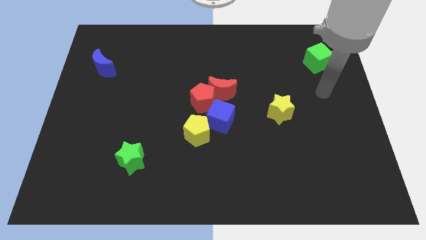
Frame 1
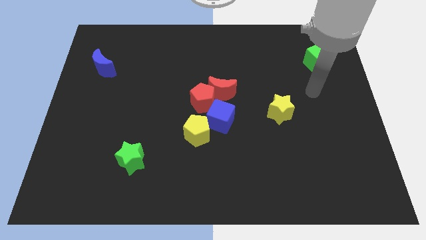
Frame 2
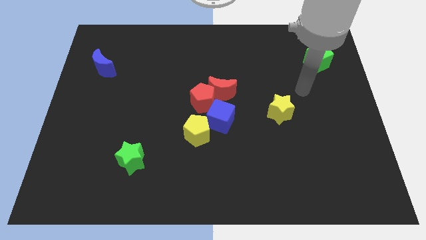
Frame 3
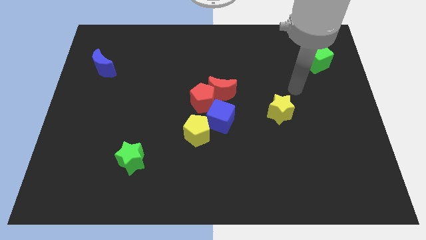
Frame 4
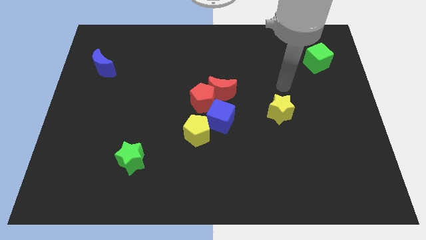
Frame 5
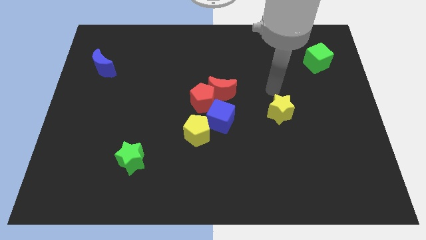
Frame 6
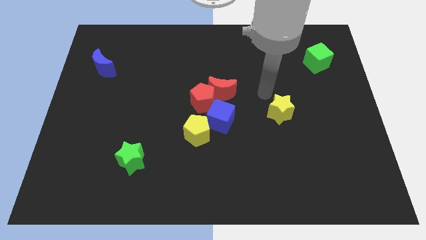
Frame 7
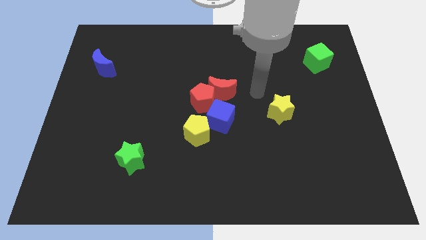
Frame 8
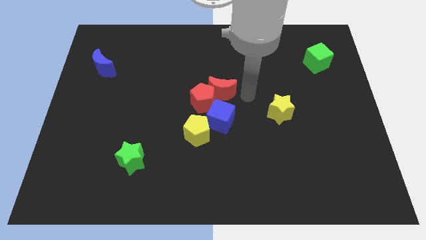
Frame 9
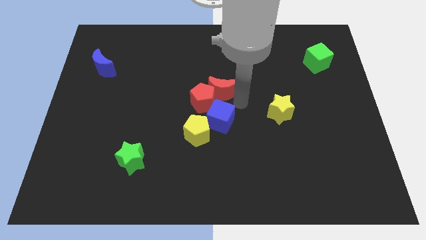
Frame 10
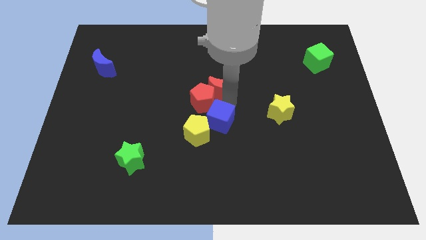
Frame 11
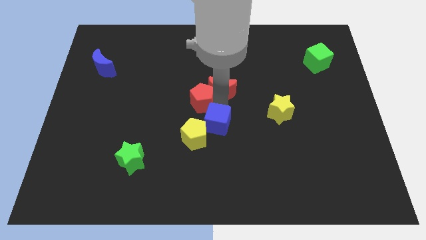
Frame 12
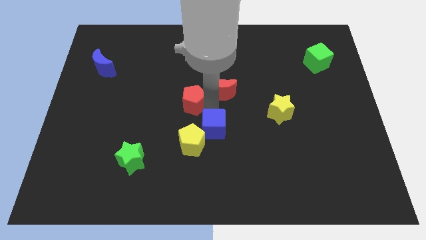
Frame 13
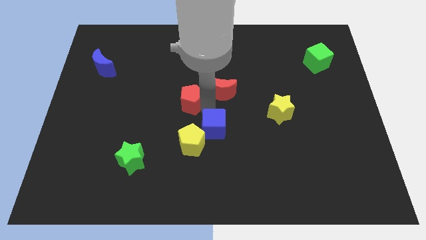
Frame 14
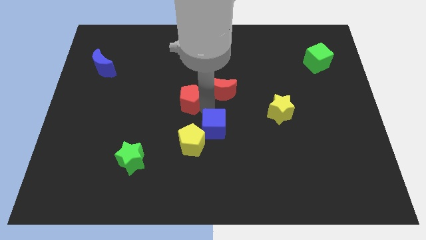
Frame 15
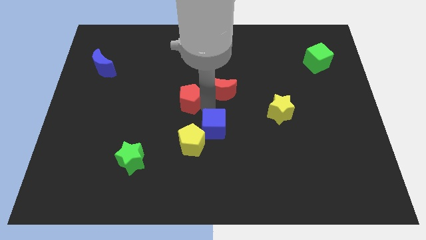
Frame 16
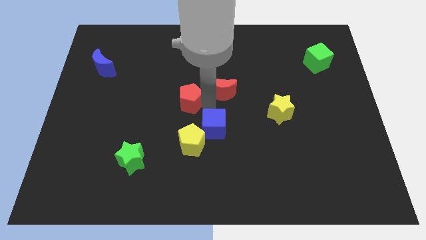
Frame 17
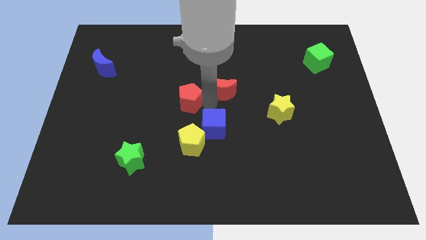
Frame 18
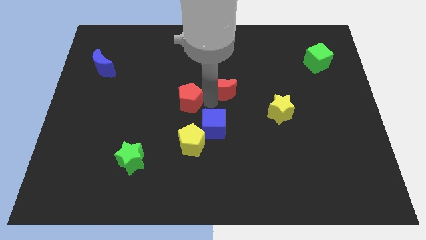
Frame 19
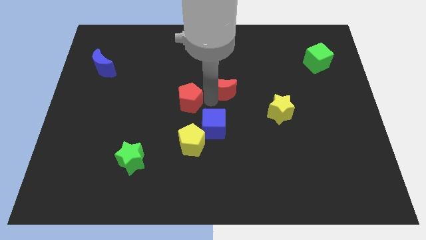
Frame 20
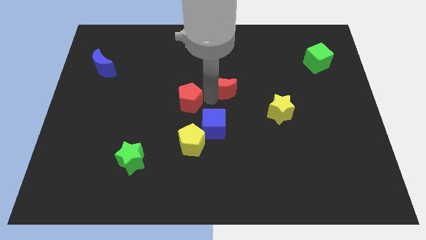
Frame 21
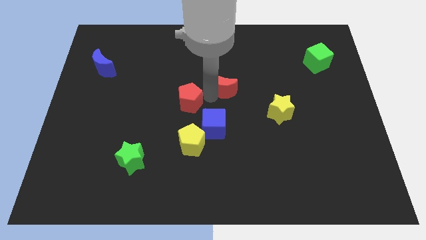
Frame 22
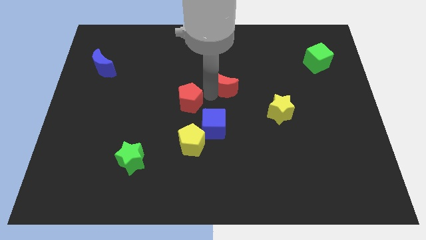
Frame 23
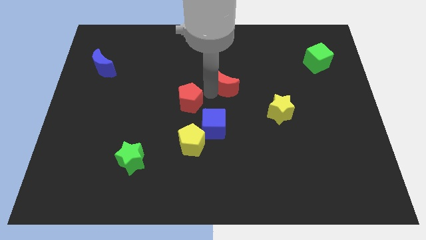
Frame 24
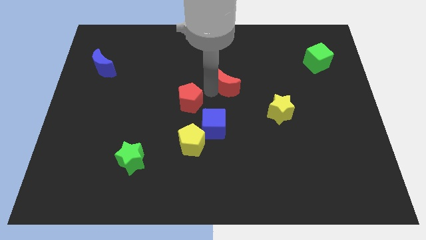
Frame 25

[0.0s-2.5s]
separate the red moon from the red pentagon and blue cube

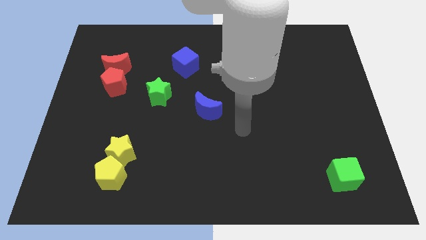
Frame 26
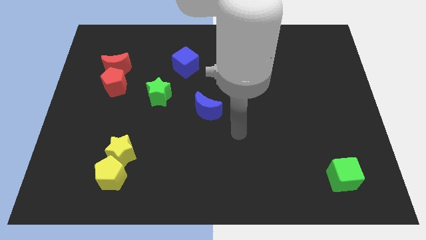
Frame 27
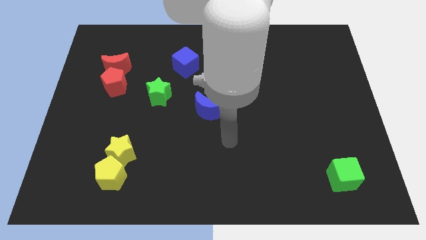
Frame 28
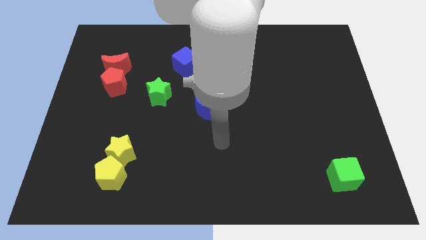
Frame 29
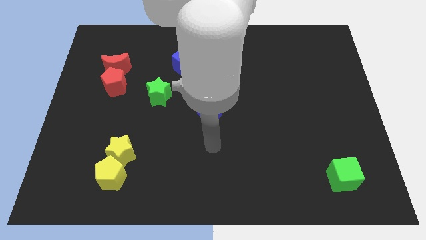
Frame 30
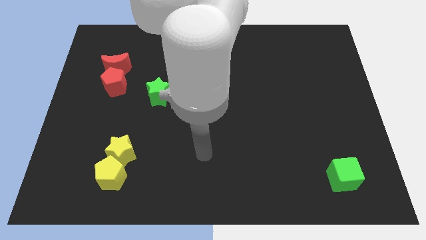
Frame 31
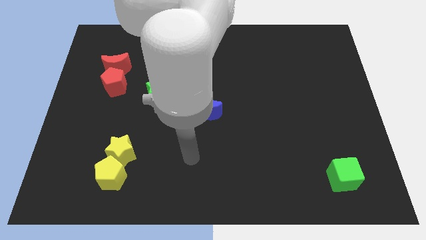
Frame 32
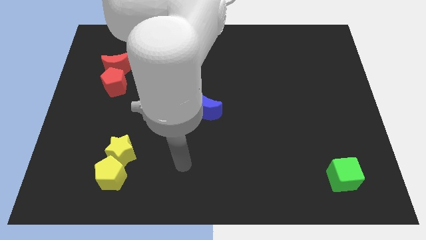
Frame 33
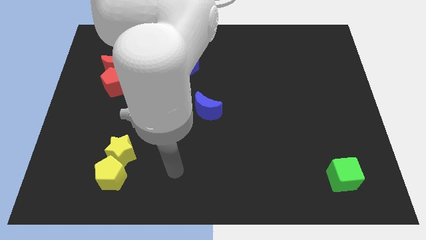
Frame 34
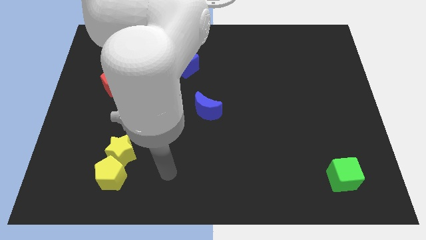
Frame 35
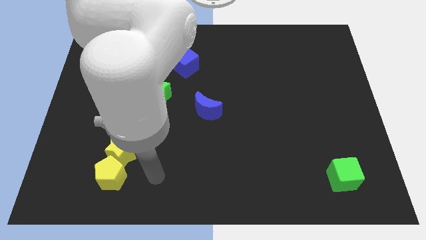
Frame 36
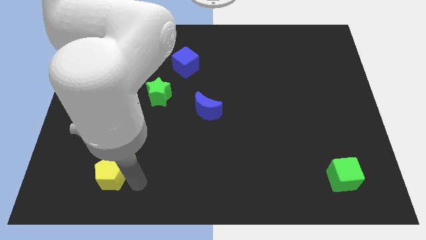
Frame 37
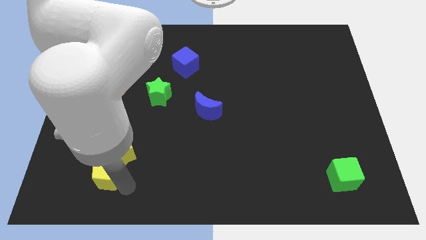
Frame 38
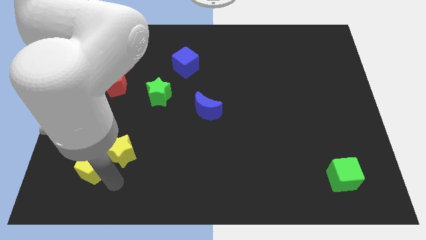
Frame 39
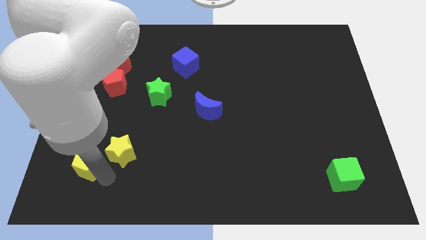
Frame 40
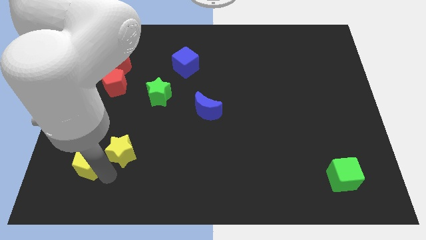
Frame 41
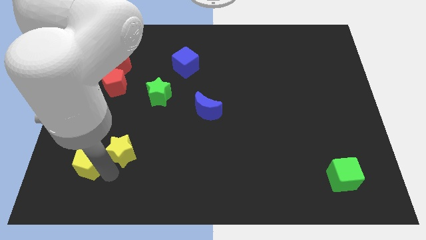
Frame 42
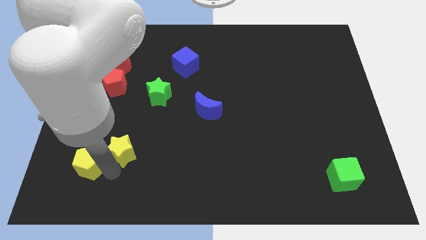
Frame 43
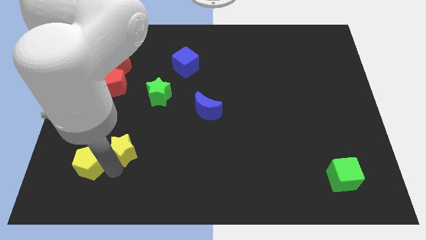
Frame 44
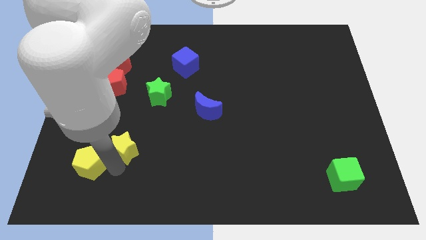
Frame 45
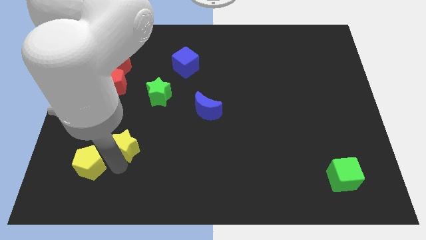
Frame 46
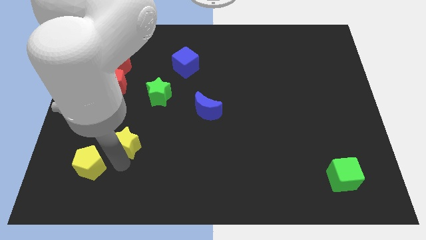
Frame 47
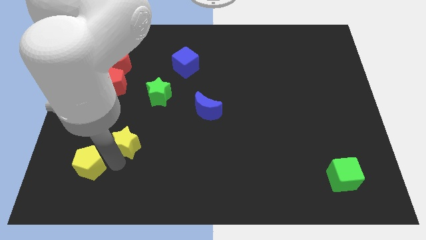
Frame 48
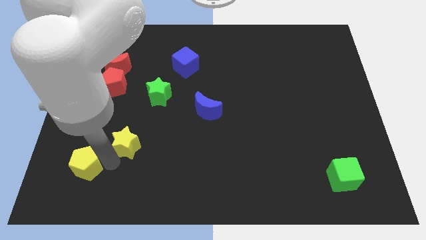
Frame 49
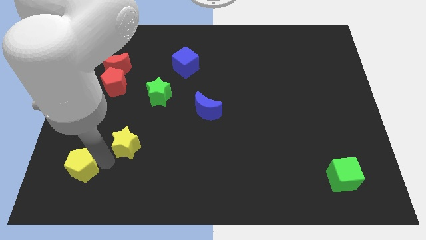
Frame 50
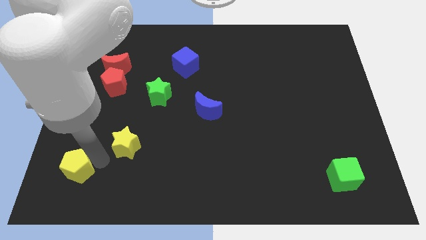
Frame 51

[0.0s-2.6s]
separate the yellow star from the yellow pentagon

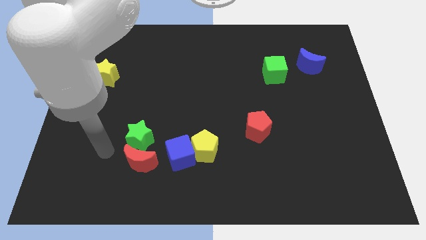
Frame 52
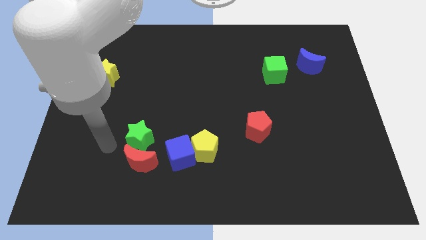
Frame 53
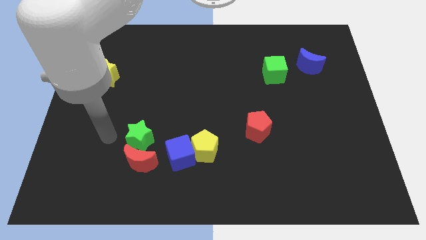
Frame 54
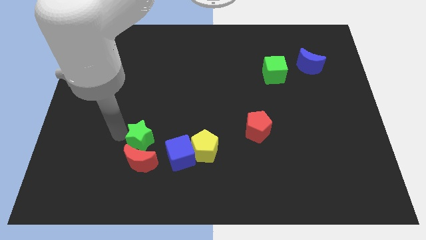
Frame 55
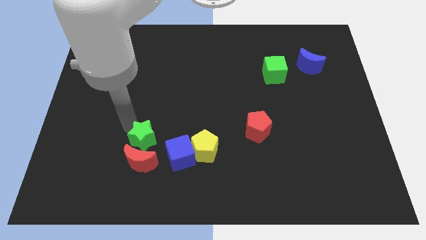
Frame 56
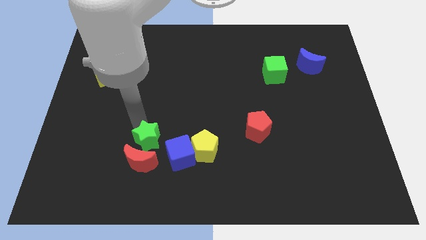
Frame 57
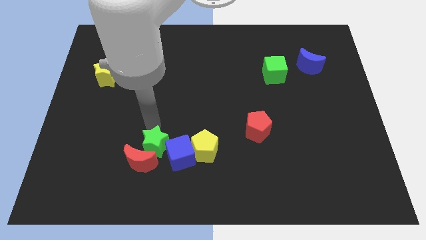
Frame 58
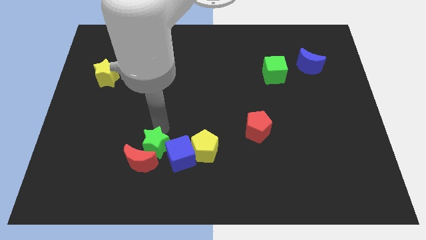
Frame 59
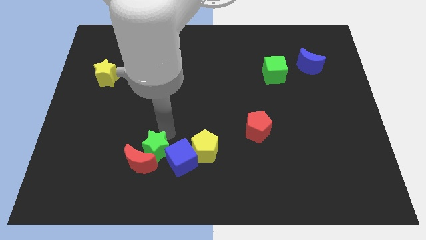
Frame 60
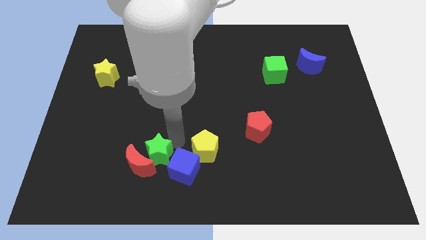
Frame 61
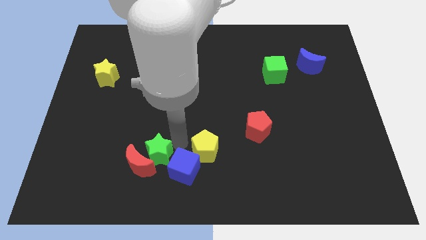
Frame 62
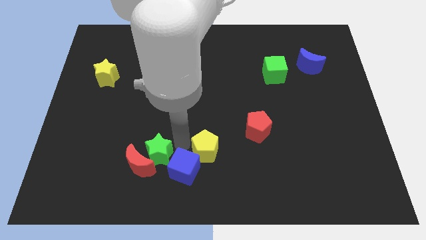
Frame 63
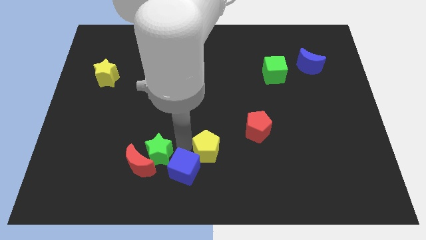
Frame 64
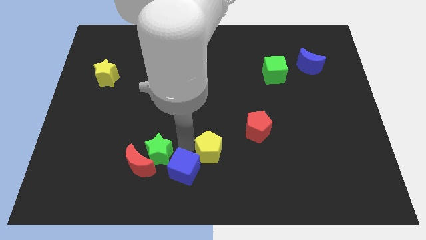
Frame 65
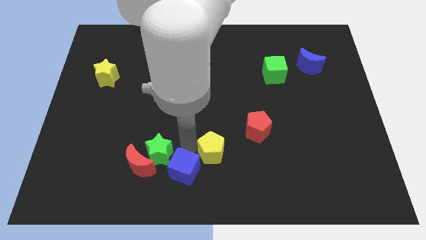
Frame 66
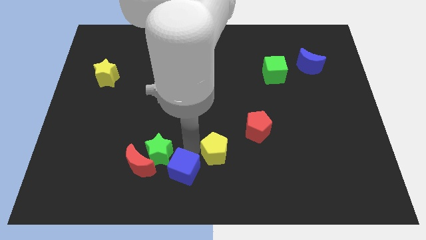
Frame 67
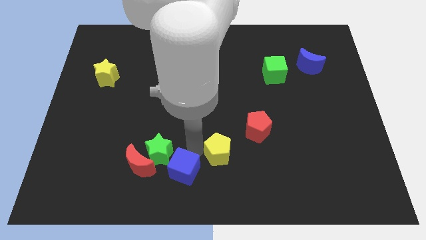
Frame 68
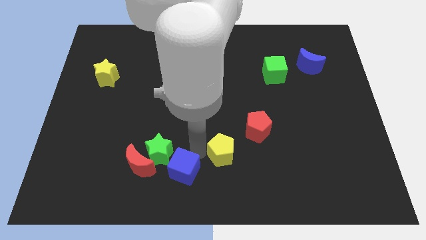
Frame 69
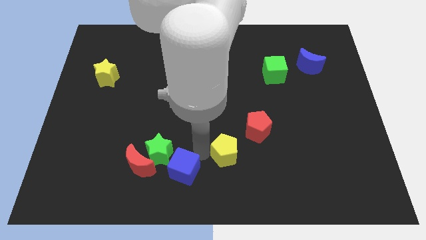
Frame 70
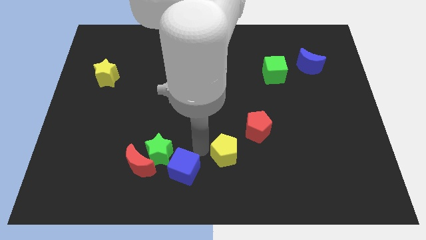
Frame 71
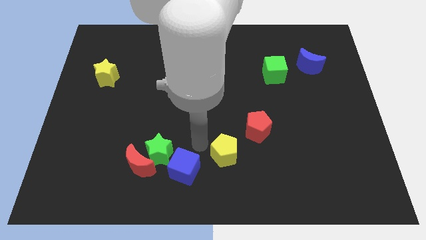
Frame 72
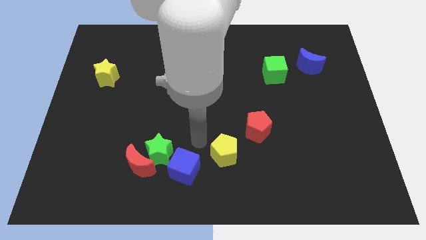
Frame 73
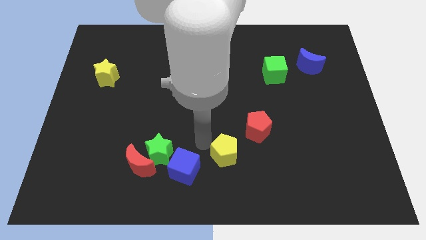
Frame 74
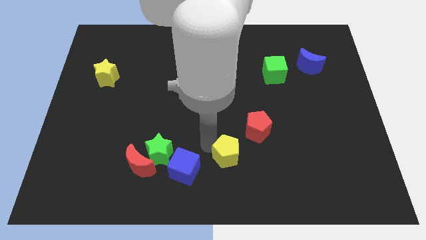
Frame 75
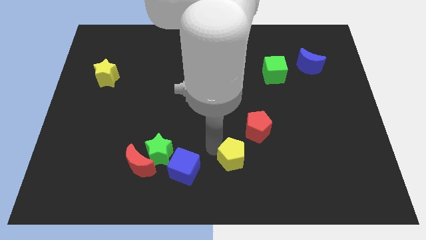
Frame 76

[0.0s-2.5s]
move the yellow pentagon away from the blue cube

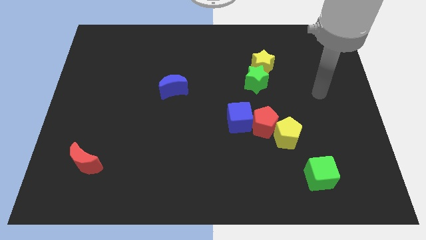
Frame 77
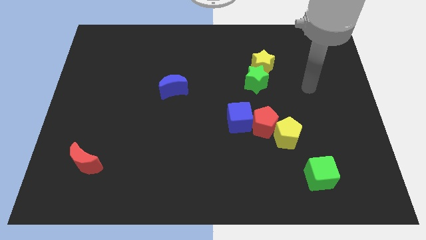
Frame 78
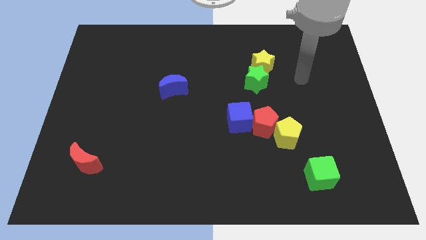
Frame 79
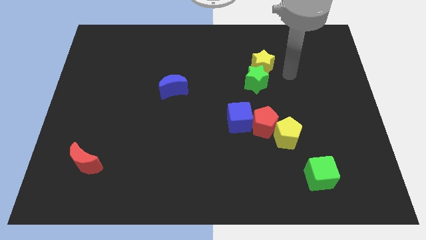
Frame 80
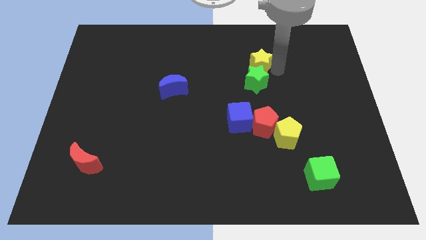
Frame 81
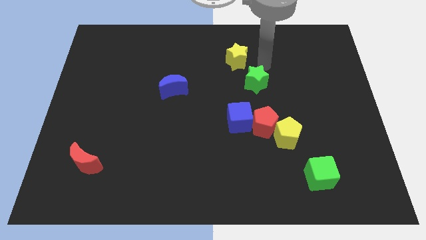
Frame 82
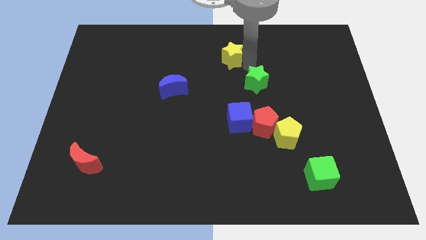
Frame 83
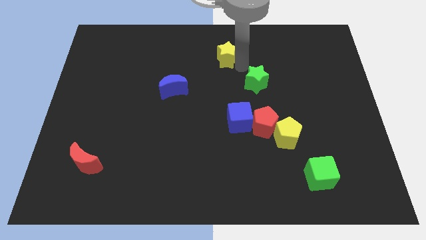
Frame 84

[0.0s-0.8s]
pull the green star apart from the yellow star

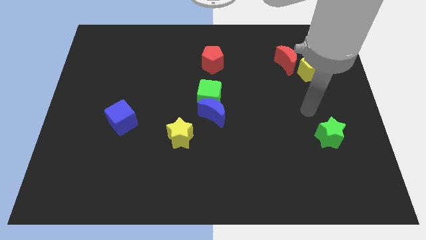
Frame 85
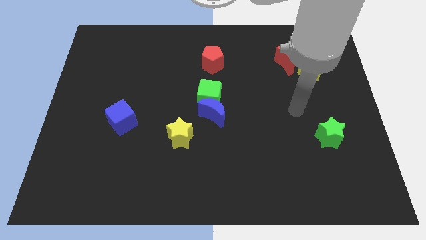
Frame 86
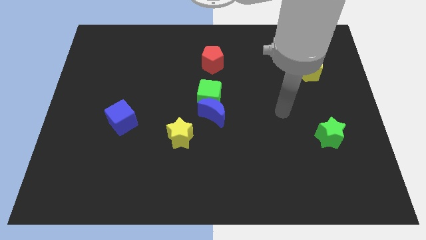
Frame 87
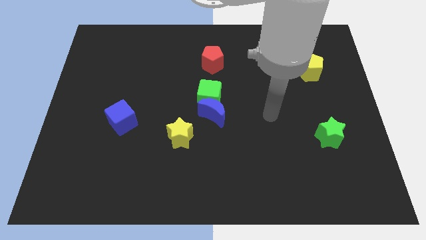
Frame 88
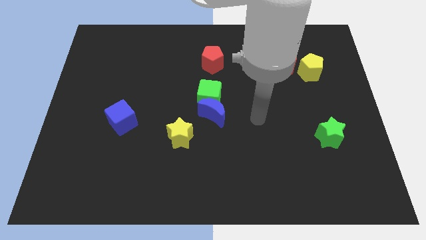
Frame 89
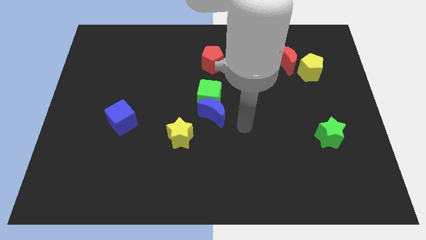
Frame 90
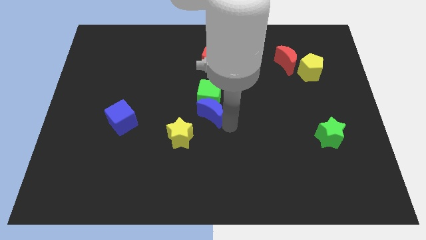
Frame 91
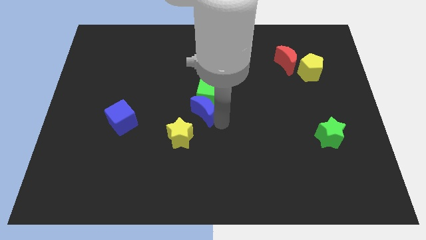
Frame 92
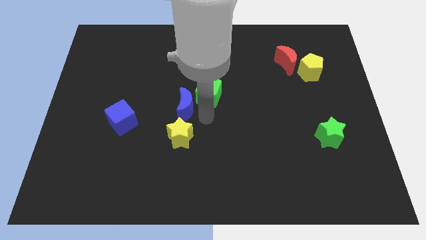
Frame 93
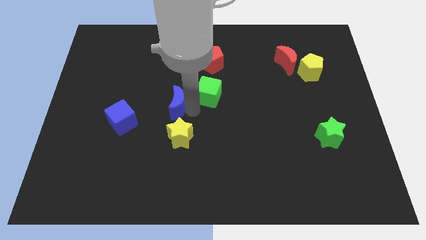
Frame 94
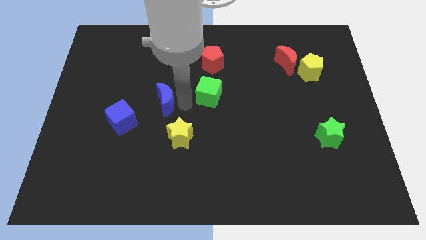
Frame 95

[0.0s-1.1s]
separate the green cube from the blue moon
